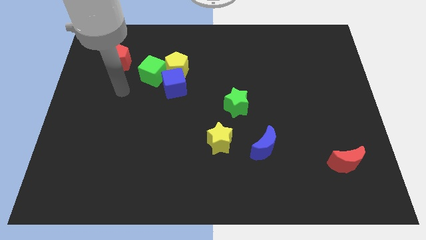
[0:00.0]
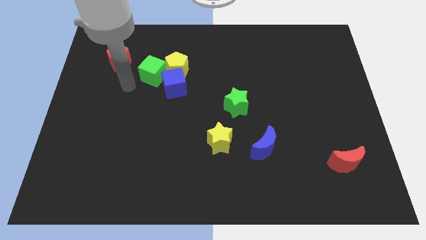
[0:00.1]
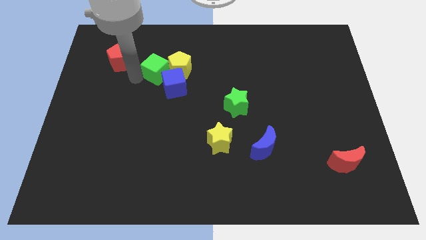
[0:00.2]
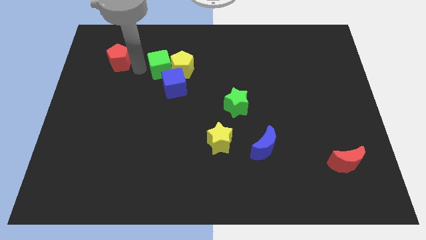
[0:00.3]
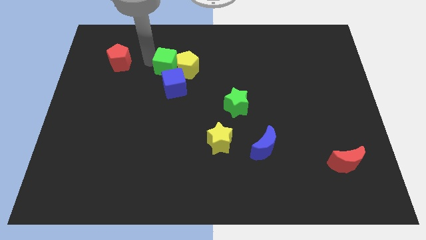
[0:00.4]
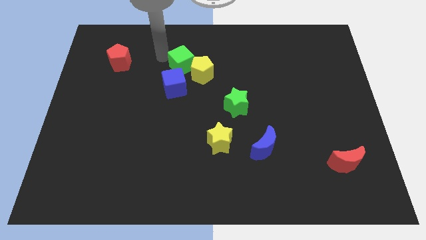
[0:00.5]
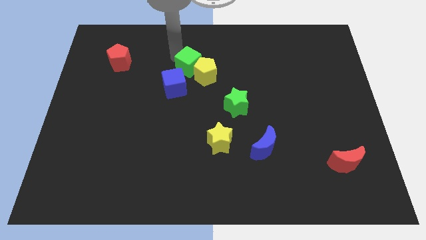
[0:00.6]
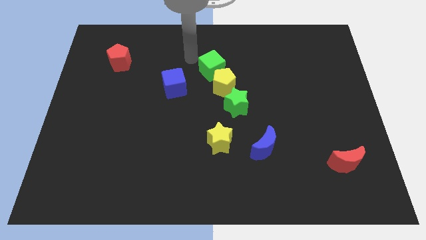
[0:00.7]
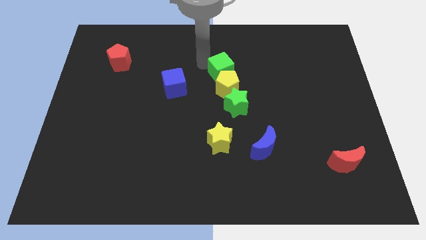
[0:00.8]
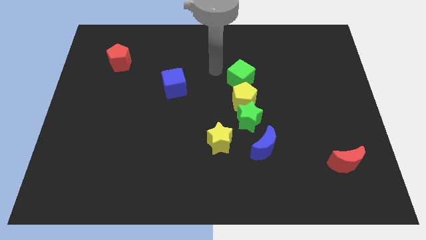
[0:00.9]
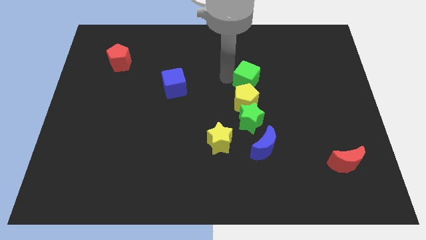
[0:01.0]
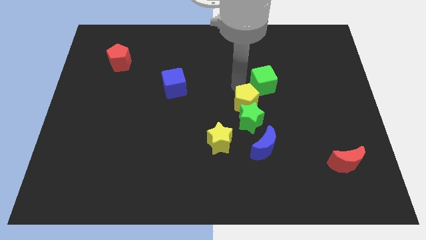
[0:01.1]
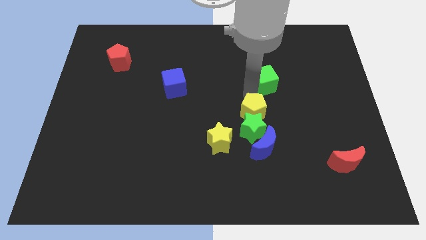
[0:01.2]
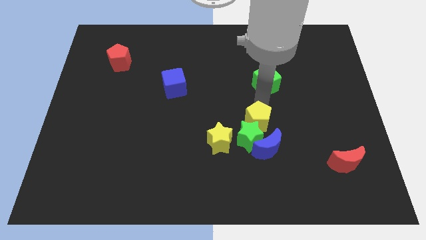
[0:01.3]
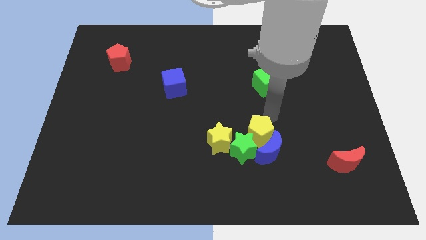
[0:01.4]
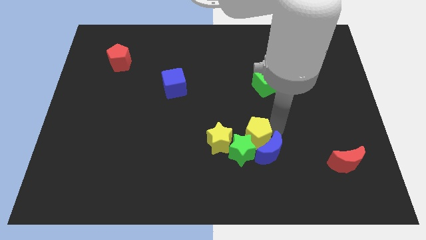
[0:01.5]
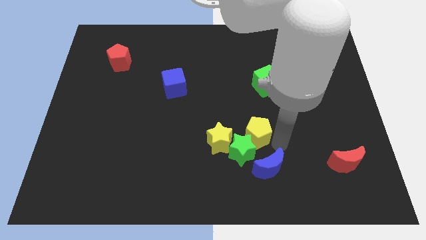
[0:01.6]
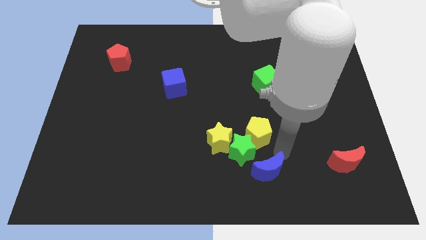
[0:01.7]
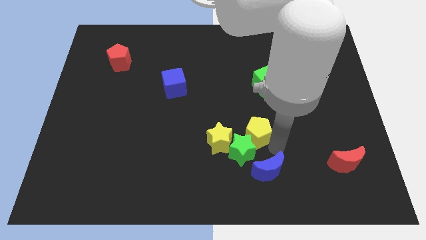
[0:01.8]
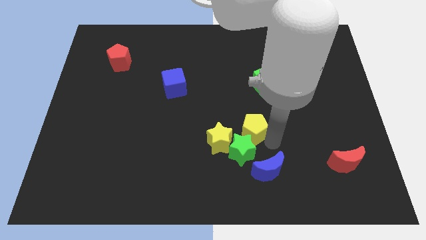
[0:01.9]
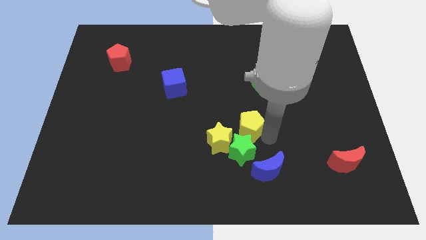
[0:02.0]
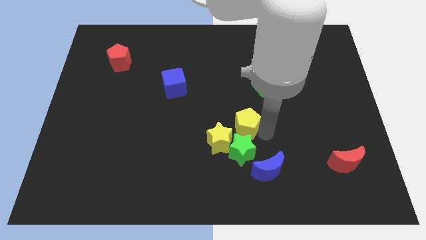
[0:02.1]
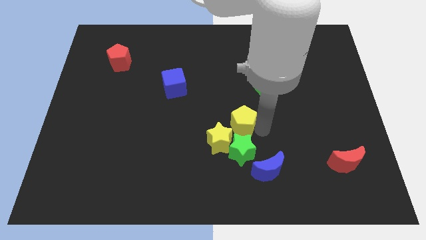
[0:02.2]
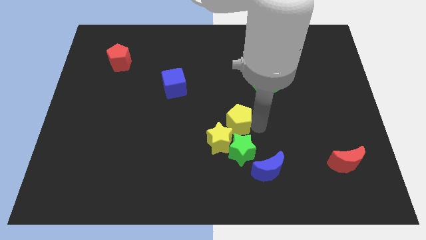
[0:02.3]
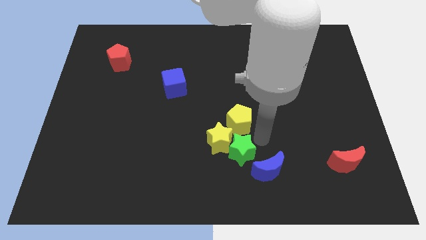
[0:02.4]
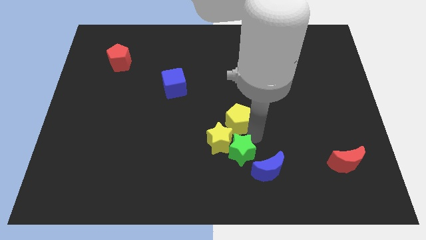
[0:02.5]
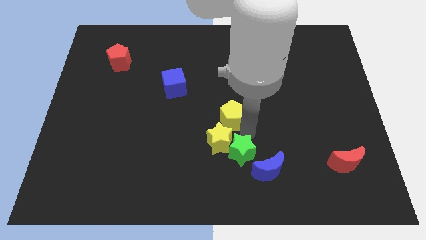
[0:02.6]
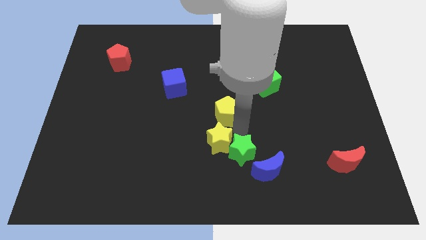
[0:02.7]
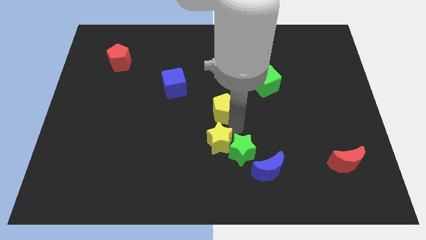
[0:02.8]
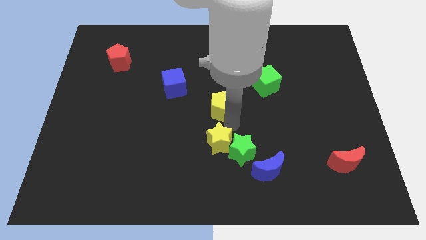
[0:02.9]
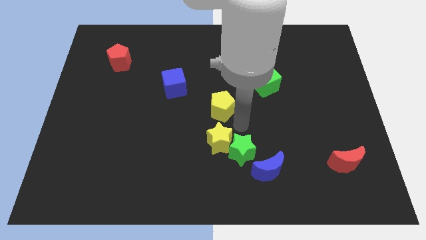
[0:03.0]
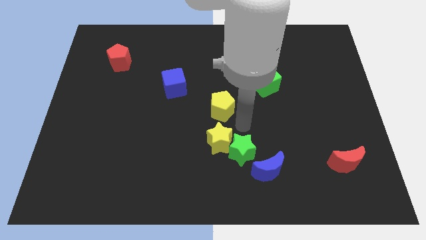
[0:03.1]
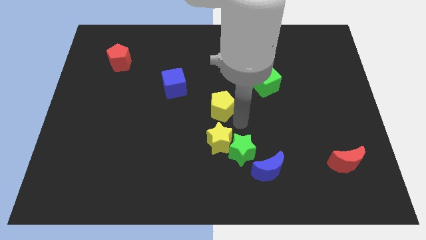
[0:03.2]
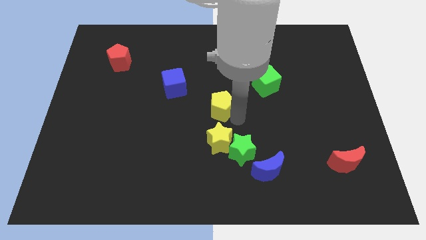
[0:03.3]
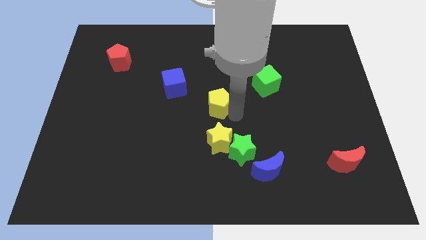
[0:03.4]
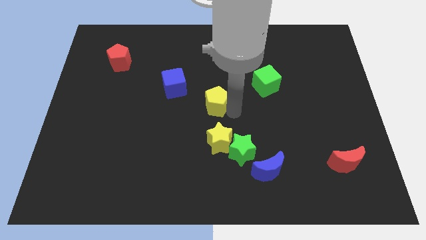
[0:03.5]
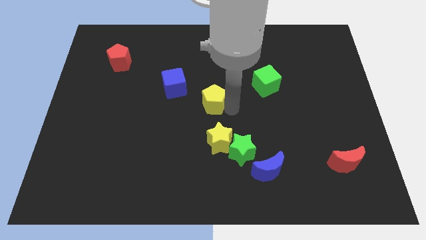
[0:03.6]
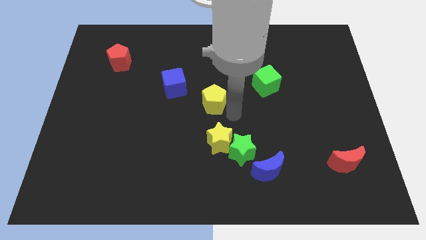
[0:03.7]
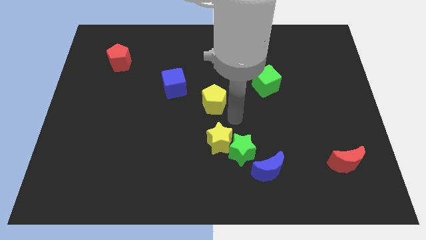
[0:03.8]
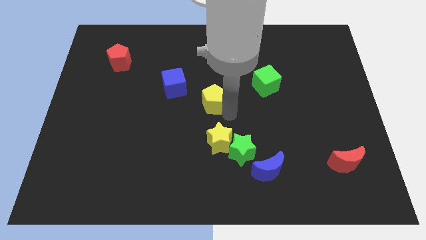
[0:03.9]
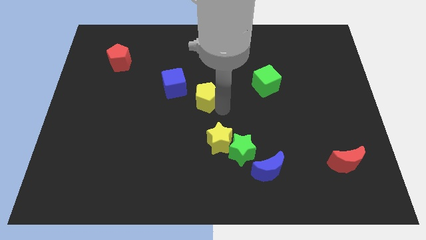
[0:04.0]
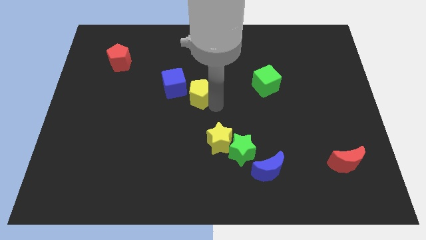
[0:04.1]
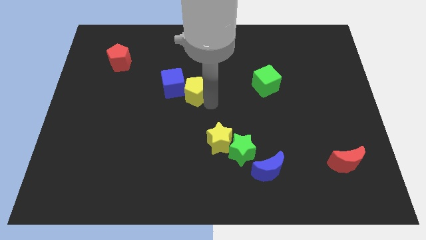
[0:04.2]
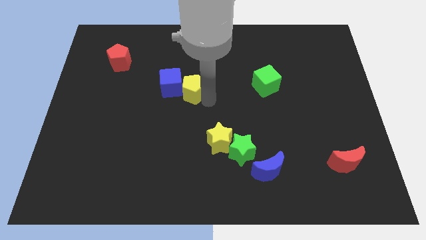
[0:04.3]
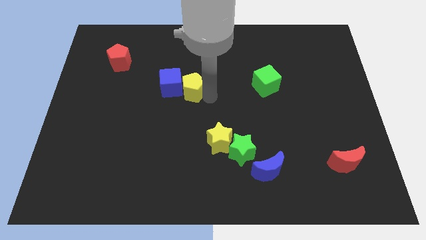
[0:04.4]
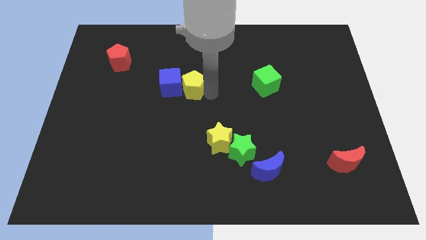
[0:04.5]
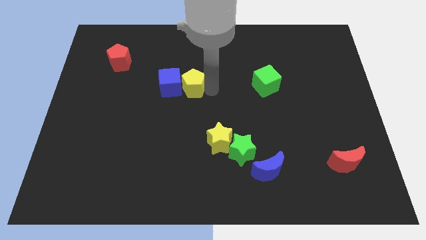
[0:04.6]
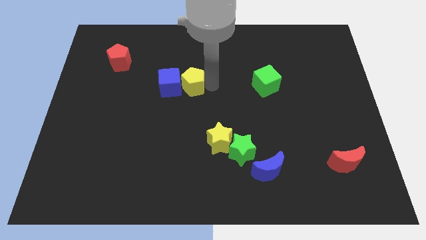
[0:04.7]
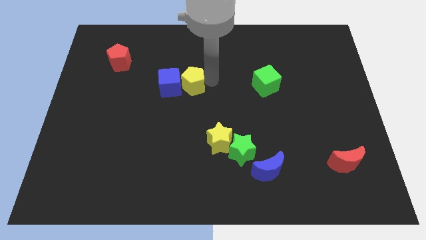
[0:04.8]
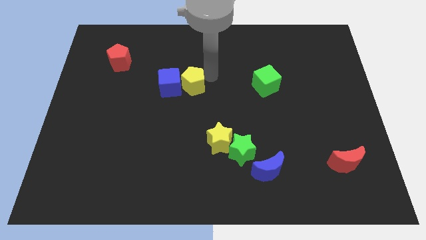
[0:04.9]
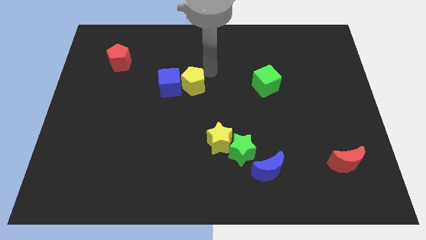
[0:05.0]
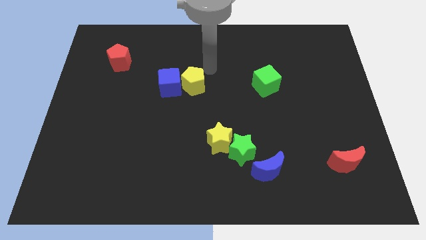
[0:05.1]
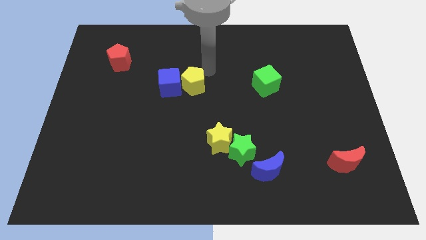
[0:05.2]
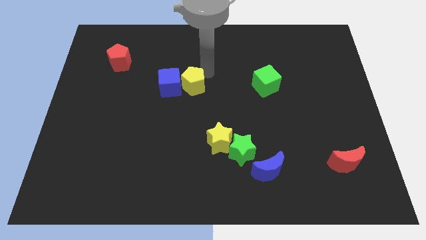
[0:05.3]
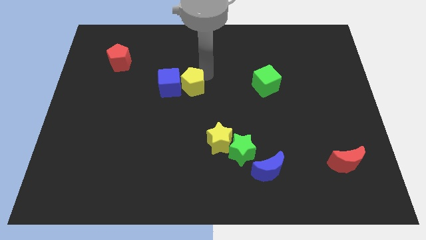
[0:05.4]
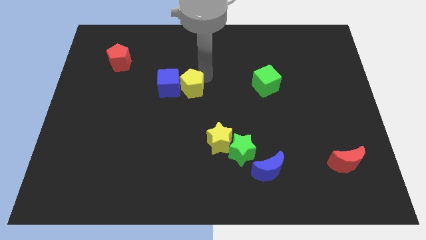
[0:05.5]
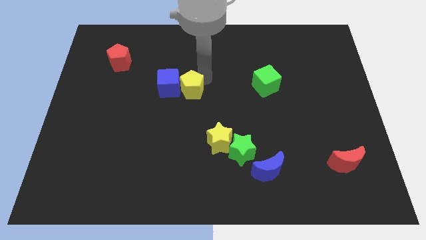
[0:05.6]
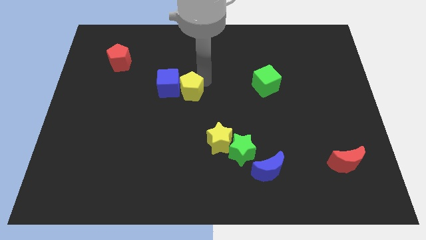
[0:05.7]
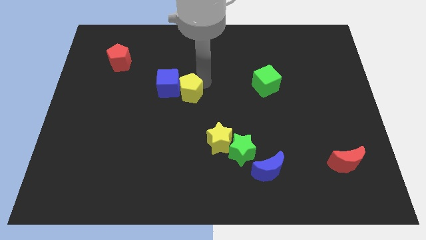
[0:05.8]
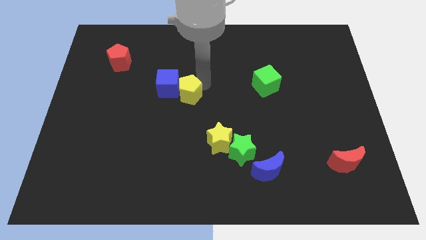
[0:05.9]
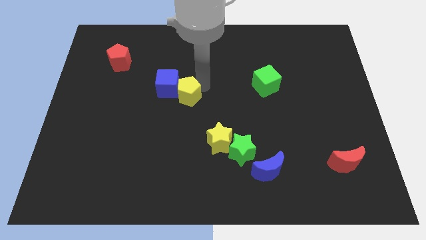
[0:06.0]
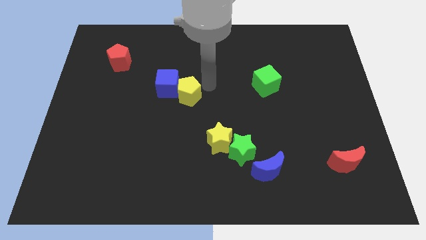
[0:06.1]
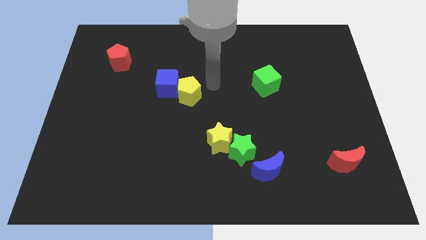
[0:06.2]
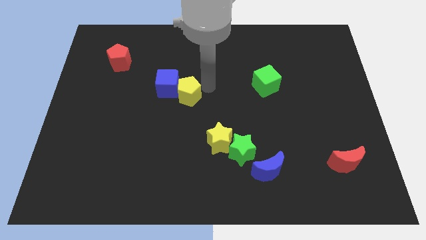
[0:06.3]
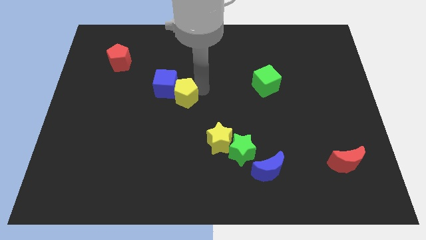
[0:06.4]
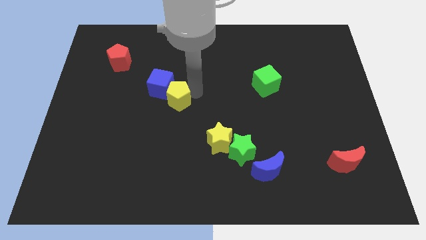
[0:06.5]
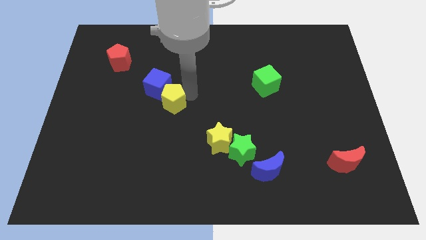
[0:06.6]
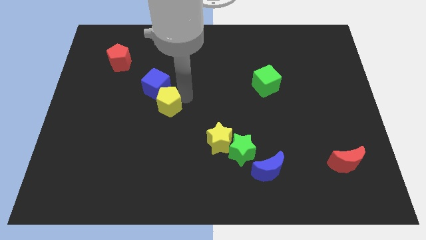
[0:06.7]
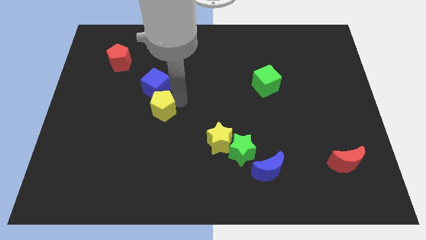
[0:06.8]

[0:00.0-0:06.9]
slide the yellow pentagon slightly downwards and then left

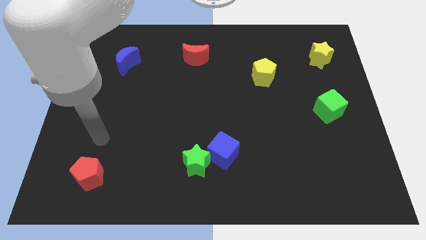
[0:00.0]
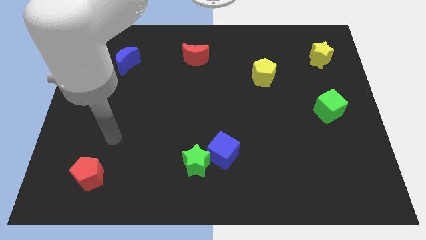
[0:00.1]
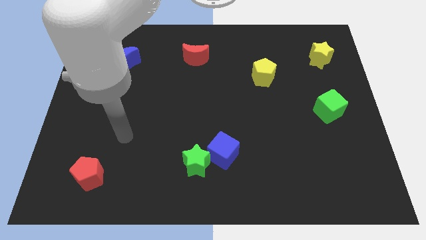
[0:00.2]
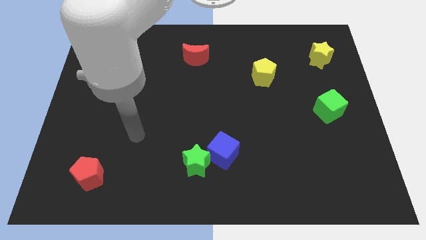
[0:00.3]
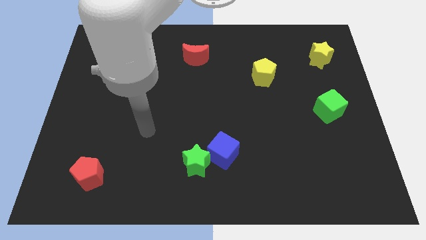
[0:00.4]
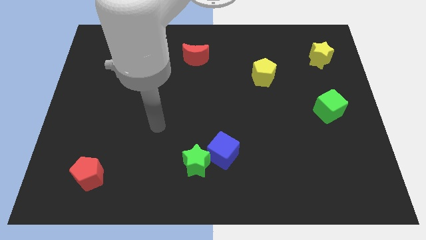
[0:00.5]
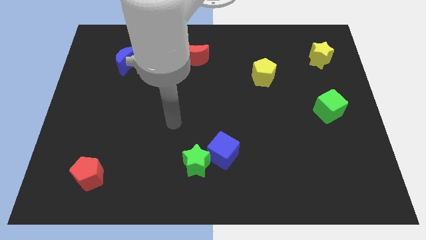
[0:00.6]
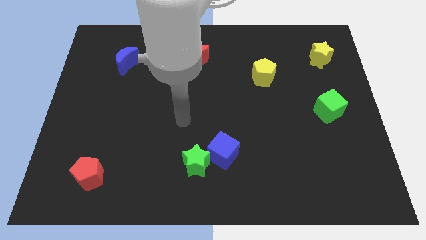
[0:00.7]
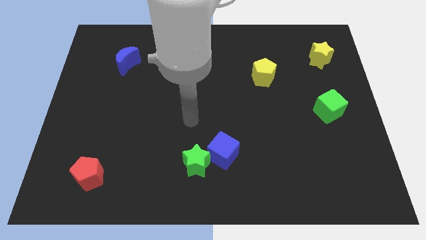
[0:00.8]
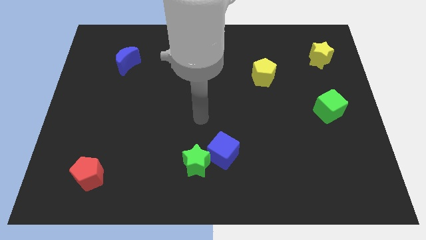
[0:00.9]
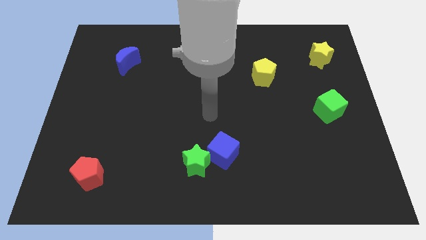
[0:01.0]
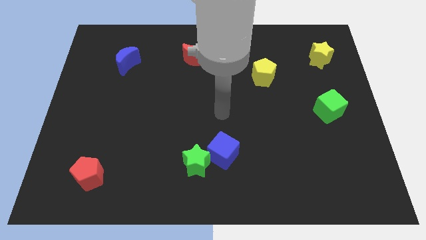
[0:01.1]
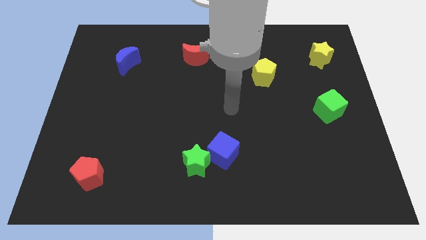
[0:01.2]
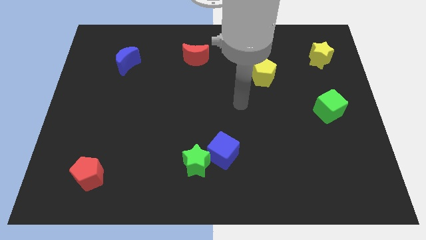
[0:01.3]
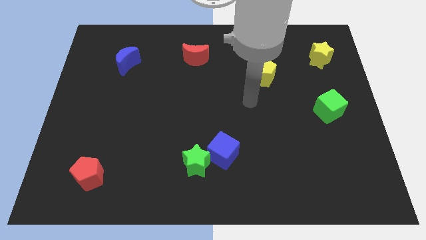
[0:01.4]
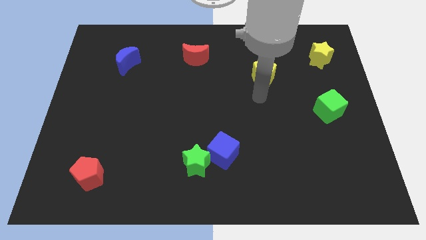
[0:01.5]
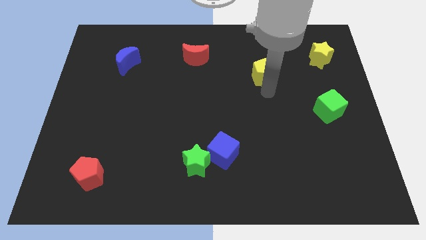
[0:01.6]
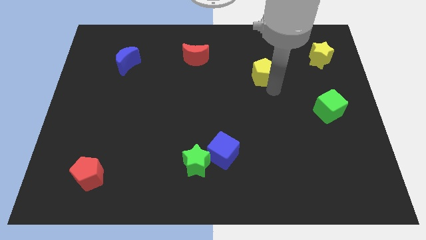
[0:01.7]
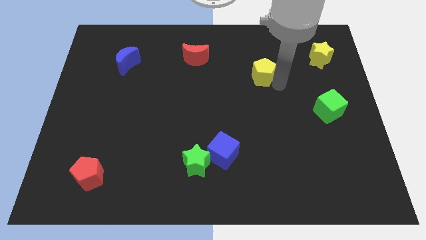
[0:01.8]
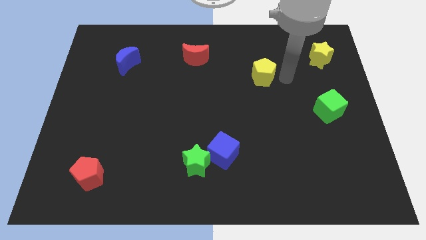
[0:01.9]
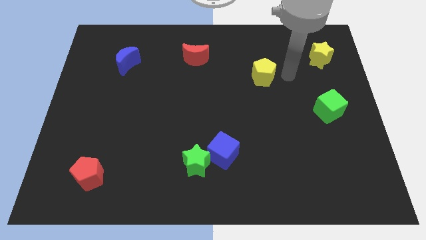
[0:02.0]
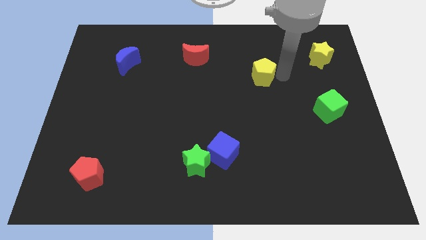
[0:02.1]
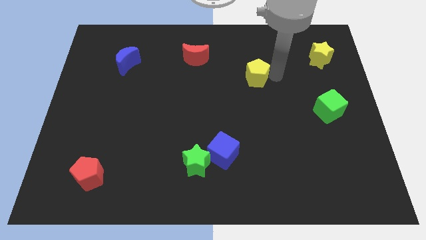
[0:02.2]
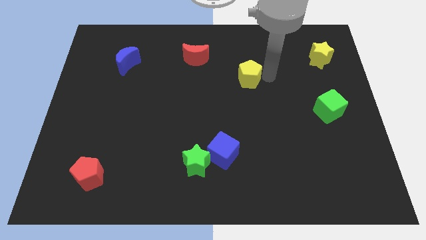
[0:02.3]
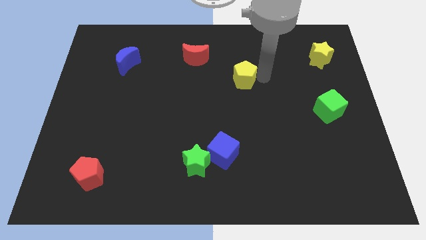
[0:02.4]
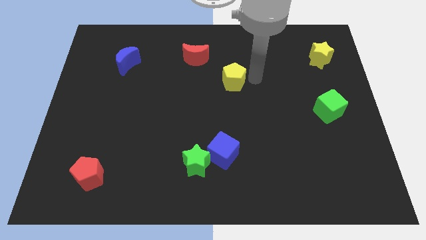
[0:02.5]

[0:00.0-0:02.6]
move the yellow pentagon somewhat to the left
